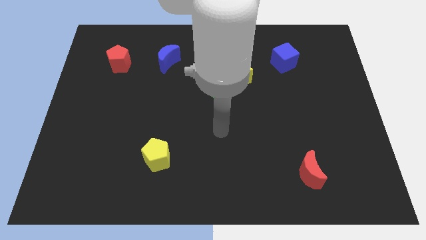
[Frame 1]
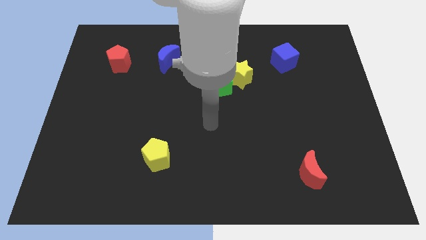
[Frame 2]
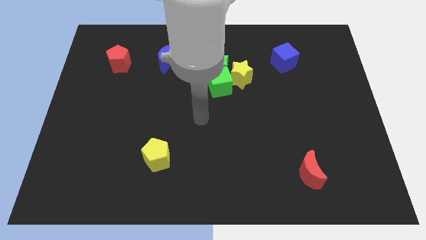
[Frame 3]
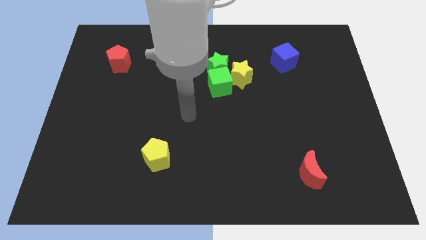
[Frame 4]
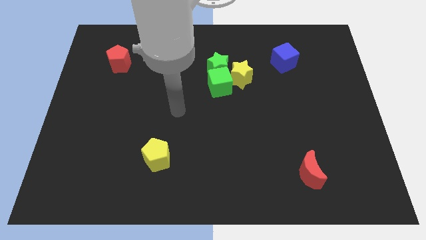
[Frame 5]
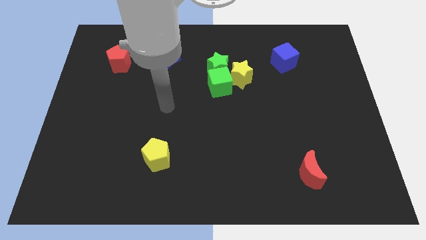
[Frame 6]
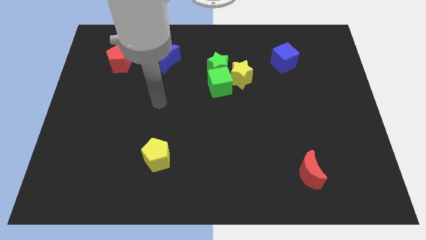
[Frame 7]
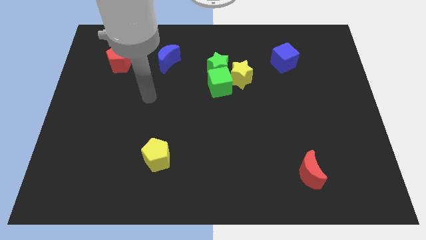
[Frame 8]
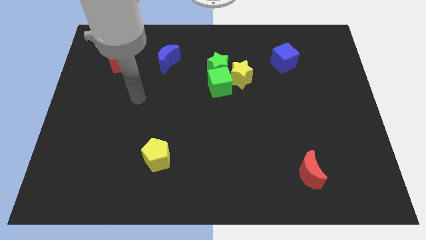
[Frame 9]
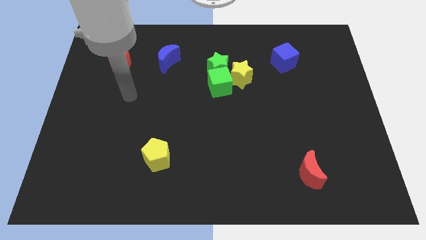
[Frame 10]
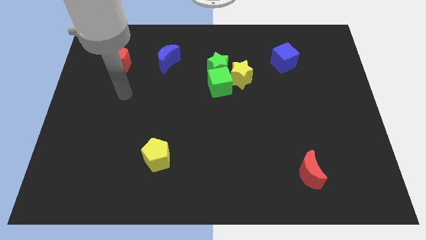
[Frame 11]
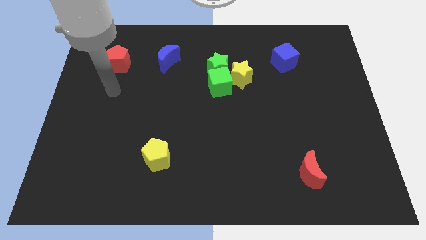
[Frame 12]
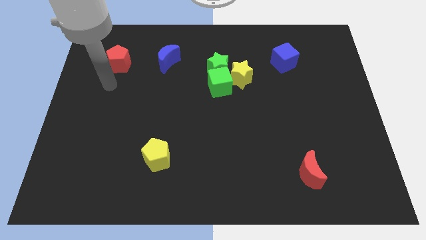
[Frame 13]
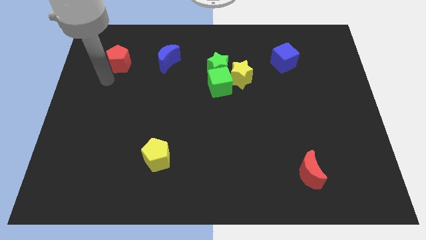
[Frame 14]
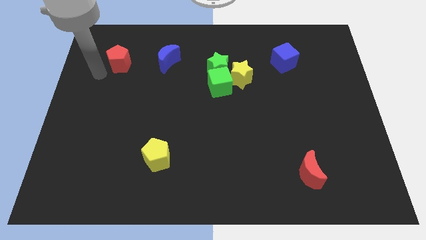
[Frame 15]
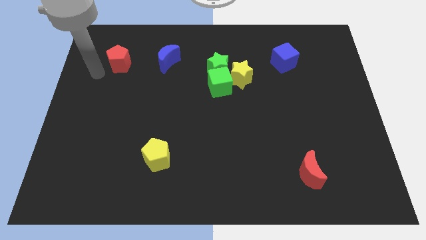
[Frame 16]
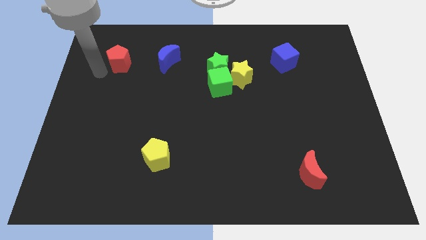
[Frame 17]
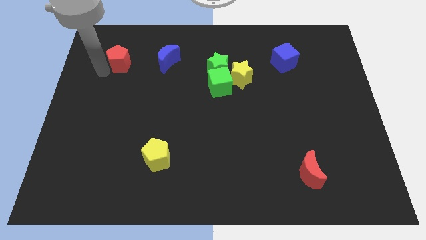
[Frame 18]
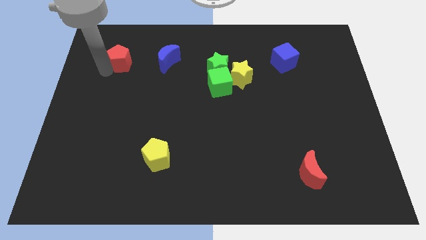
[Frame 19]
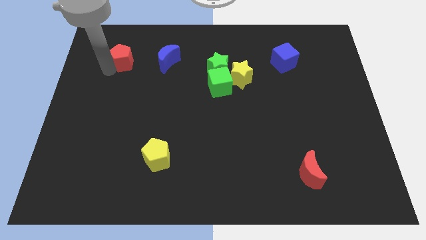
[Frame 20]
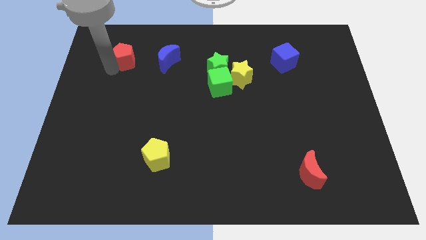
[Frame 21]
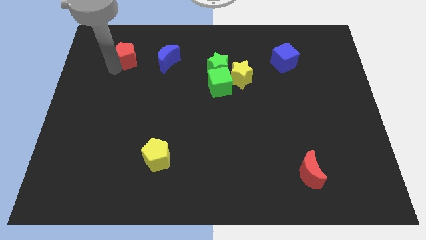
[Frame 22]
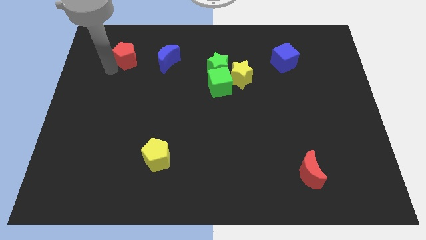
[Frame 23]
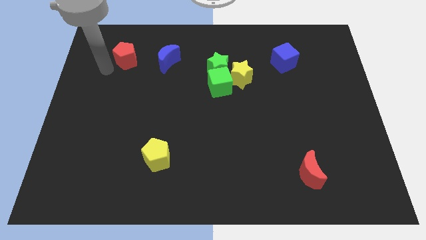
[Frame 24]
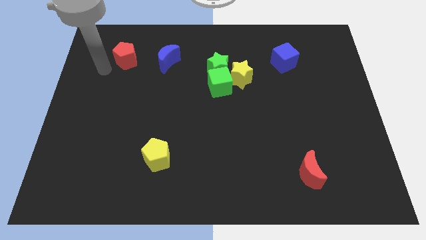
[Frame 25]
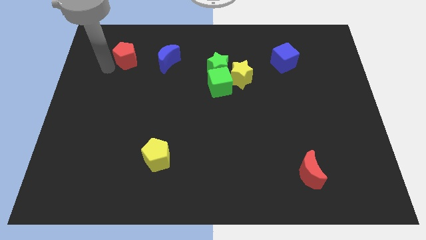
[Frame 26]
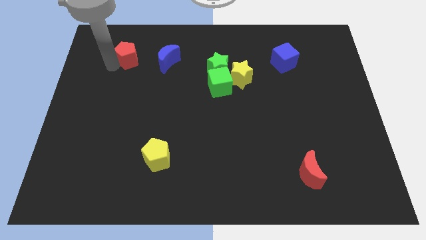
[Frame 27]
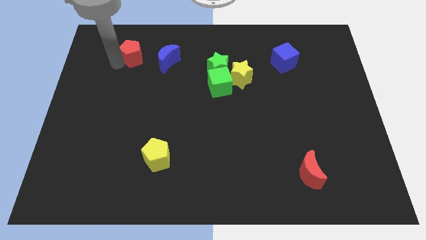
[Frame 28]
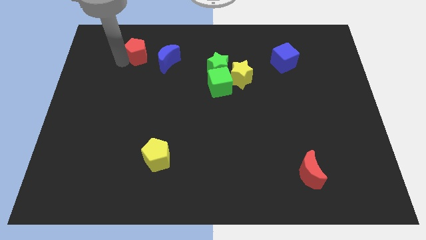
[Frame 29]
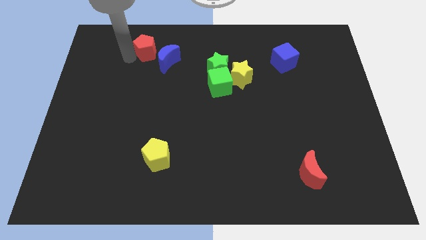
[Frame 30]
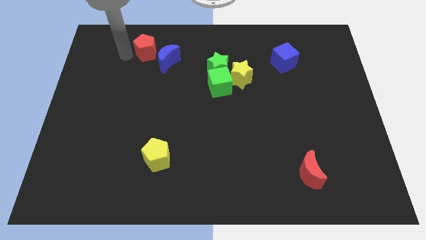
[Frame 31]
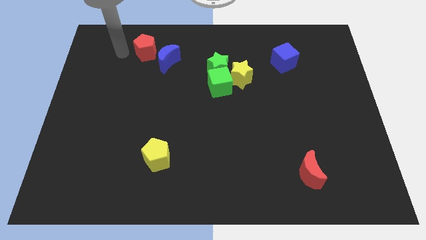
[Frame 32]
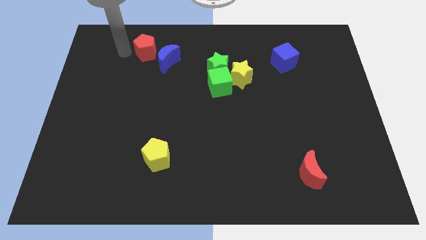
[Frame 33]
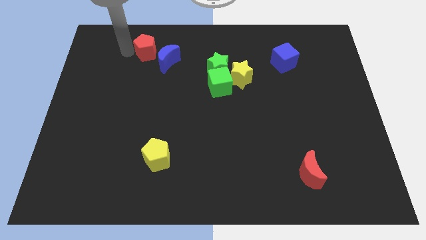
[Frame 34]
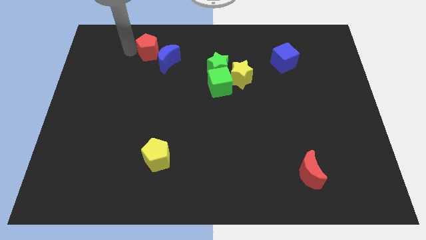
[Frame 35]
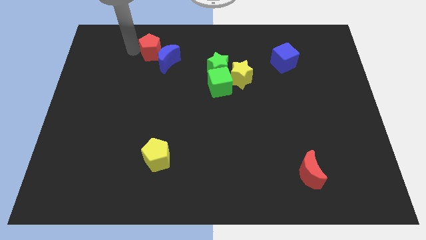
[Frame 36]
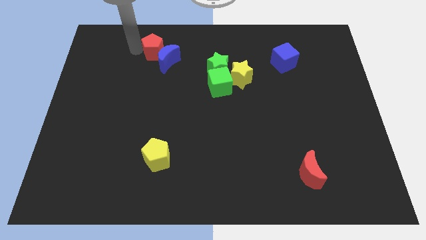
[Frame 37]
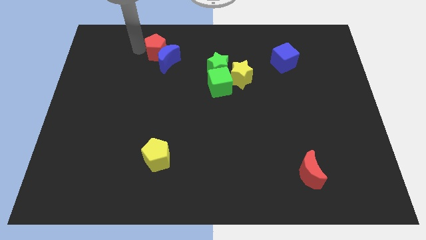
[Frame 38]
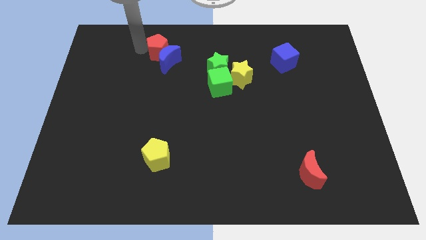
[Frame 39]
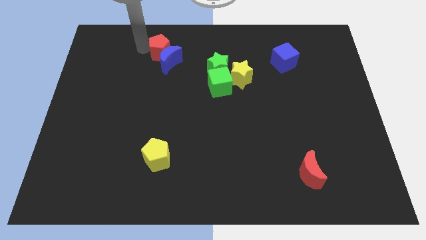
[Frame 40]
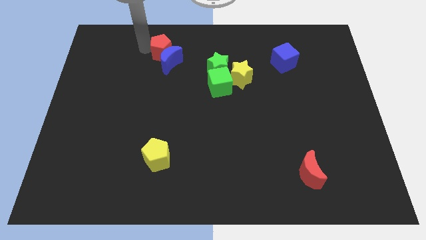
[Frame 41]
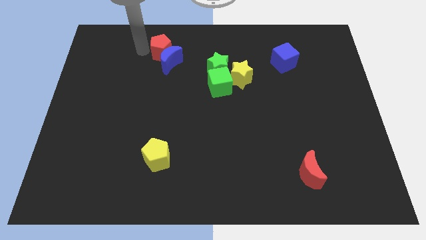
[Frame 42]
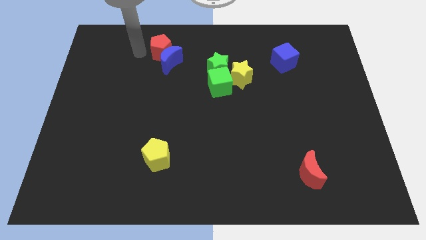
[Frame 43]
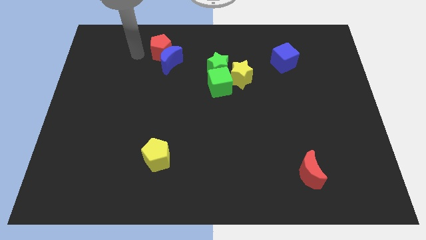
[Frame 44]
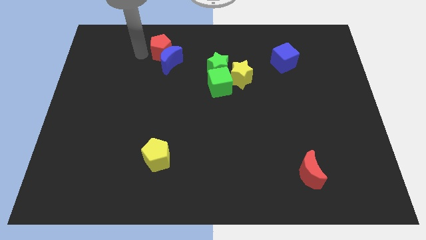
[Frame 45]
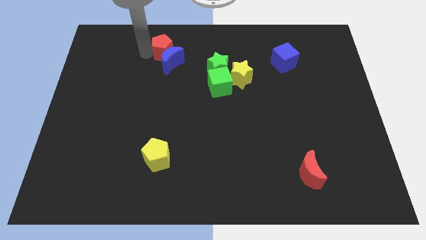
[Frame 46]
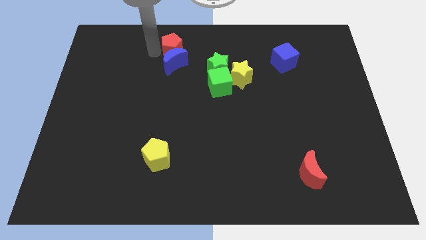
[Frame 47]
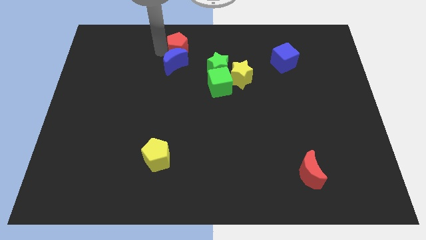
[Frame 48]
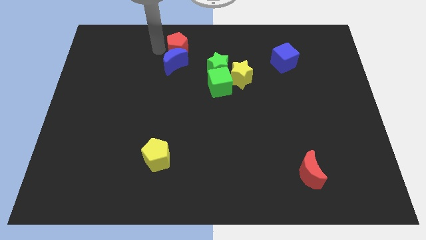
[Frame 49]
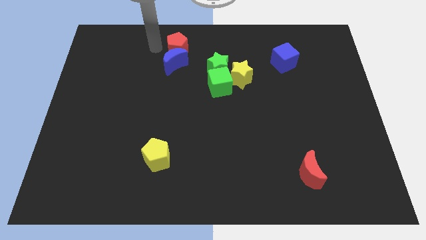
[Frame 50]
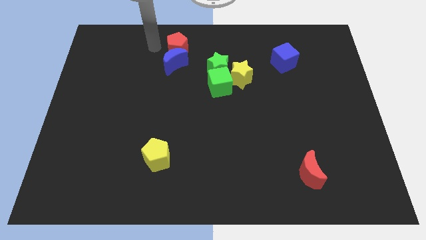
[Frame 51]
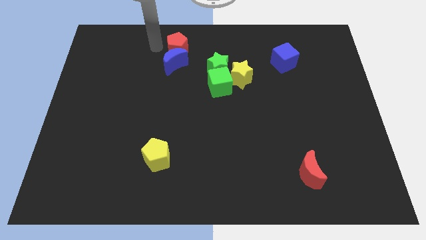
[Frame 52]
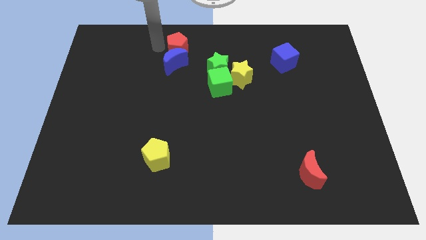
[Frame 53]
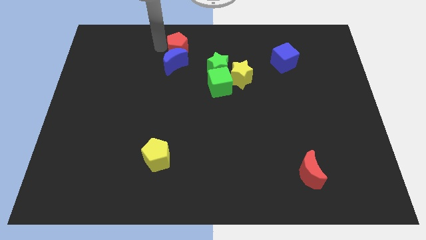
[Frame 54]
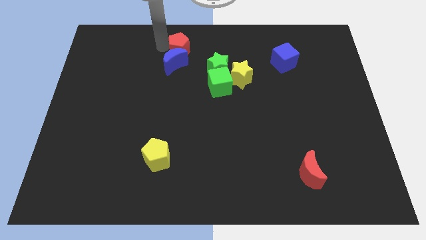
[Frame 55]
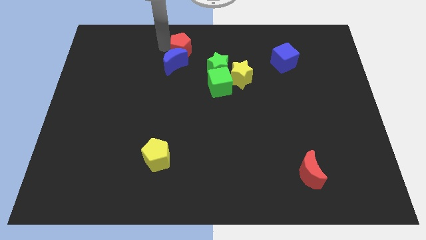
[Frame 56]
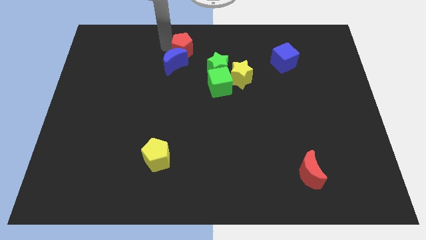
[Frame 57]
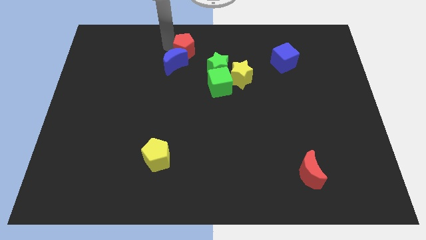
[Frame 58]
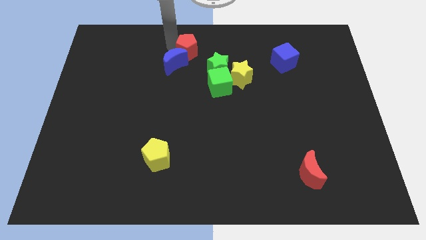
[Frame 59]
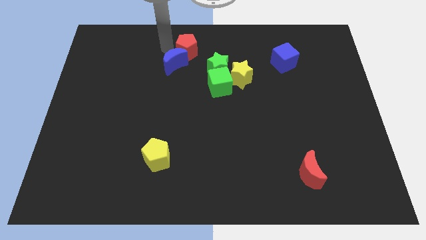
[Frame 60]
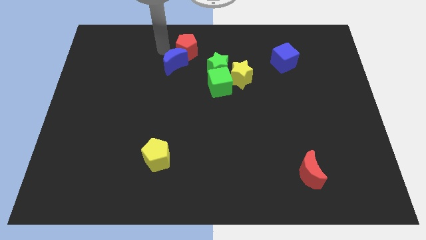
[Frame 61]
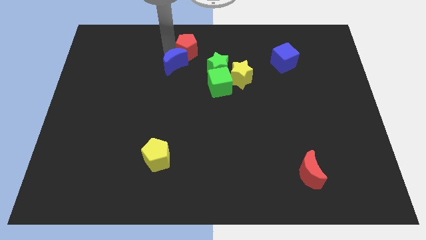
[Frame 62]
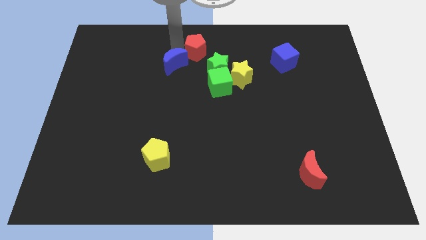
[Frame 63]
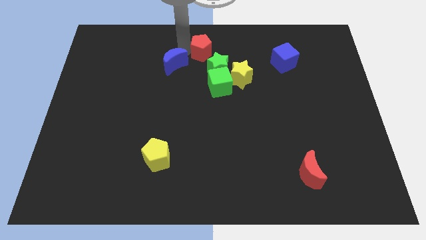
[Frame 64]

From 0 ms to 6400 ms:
push the red pentagon to the right

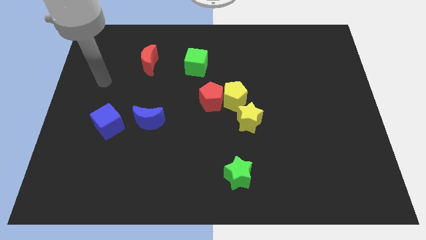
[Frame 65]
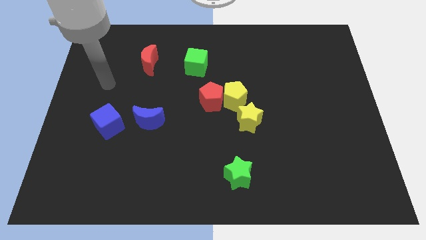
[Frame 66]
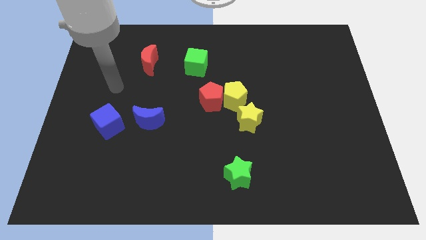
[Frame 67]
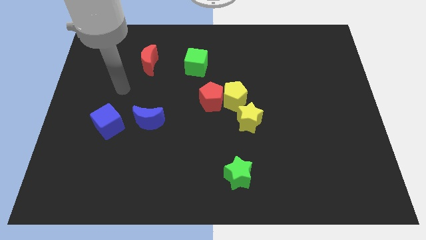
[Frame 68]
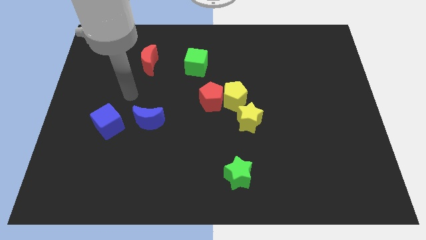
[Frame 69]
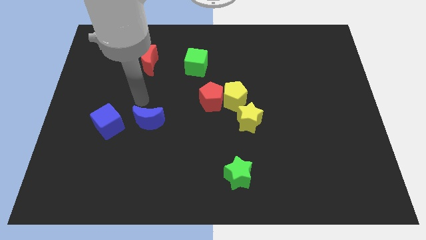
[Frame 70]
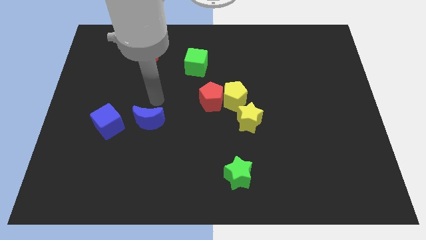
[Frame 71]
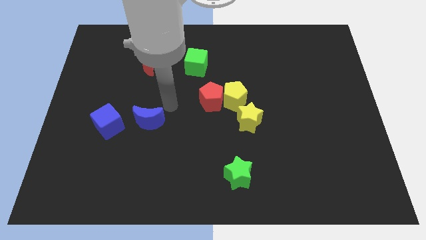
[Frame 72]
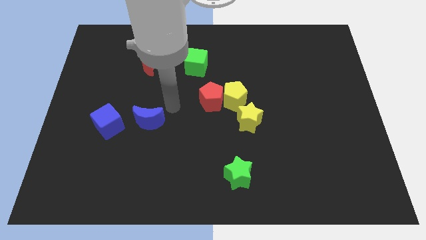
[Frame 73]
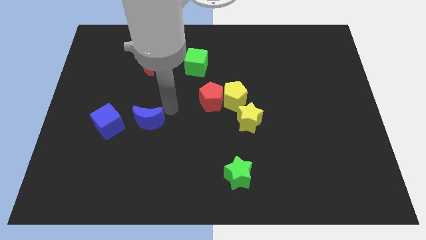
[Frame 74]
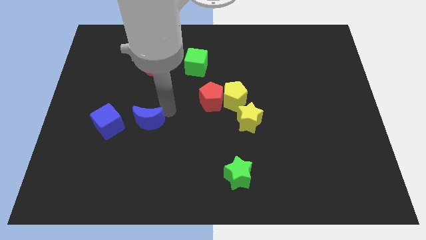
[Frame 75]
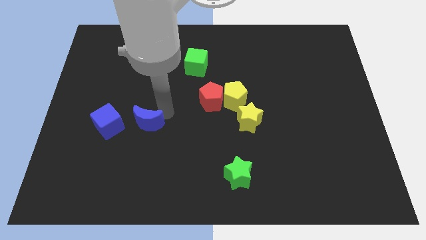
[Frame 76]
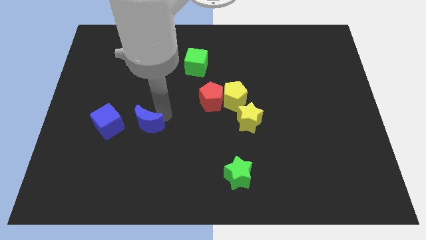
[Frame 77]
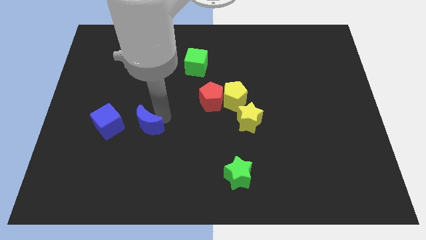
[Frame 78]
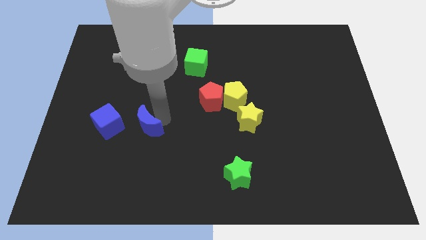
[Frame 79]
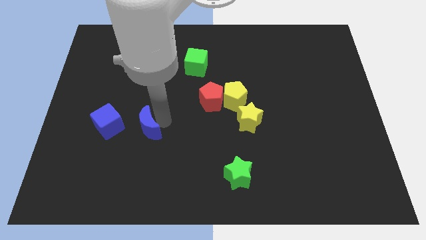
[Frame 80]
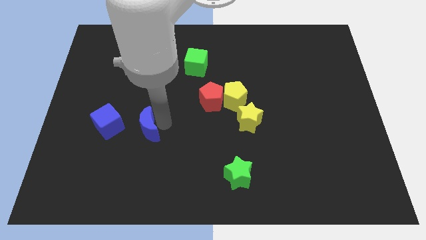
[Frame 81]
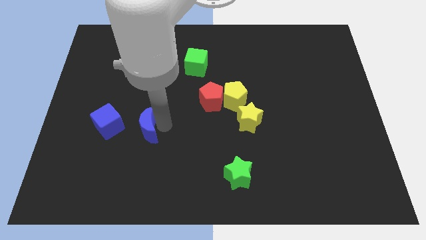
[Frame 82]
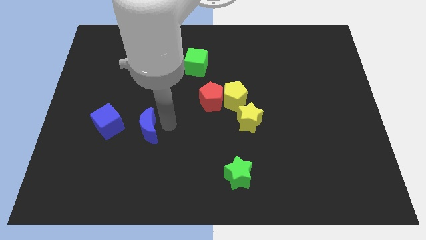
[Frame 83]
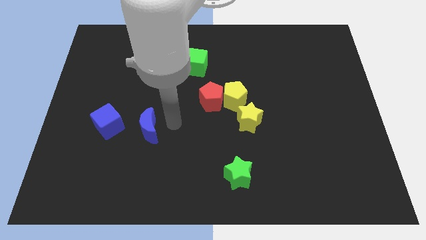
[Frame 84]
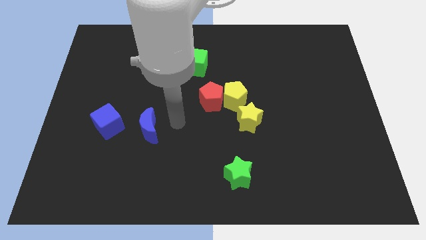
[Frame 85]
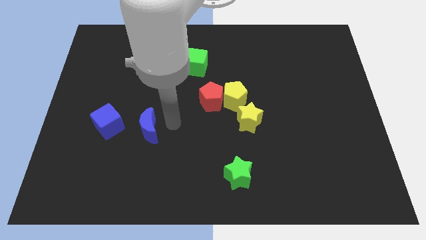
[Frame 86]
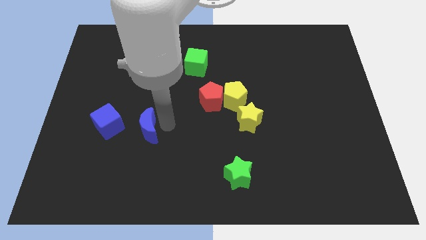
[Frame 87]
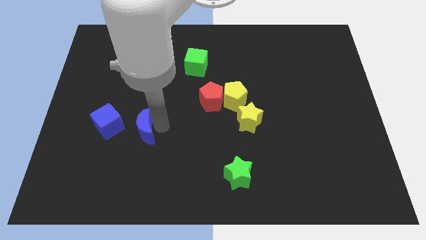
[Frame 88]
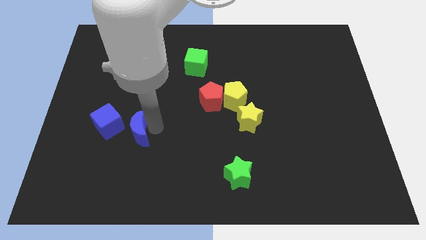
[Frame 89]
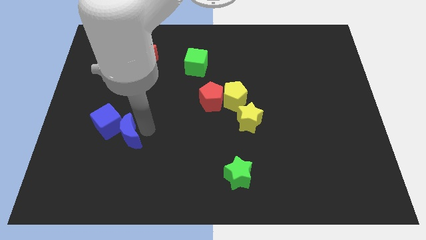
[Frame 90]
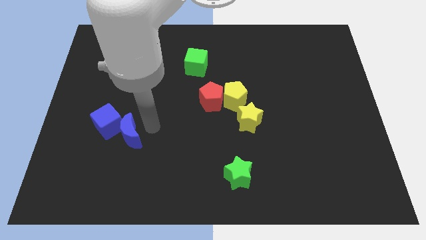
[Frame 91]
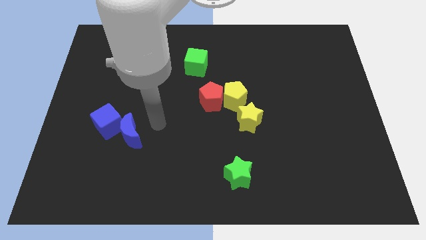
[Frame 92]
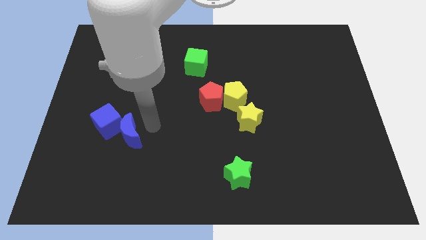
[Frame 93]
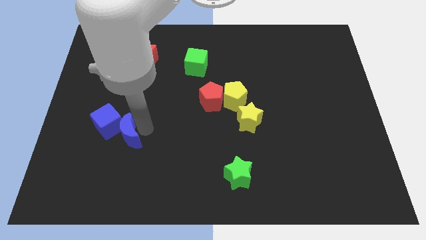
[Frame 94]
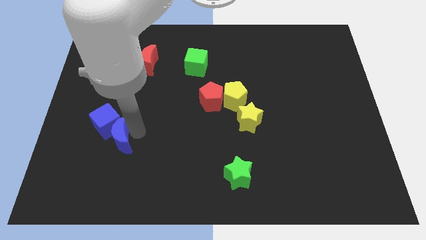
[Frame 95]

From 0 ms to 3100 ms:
push the blue moon slightly downwards and to the left
